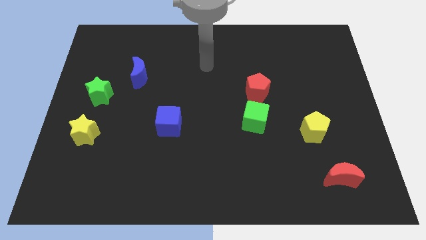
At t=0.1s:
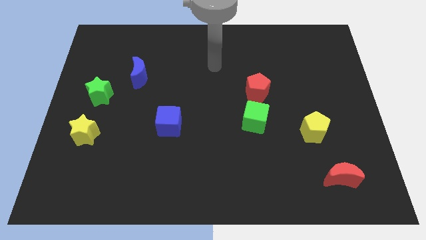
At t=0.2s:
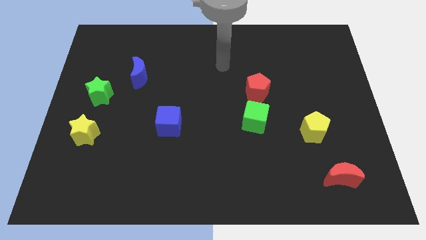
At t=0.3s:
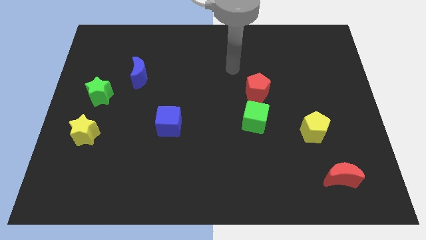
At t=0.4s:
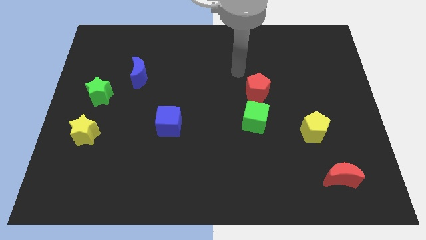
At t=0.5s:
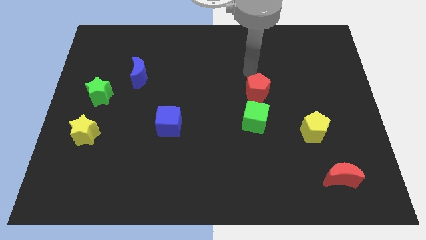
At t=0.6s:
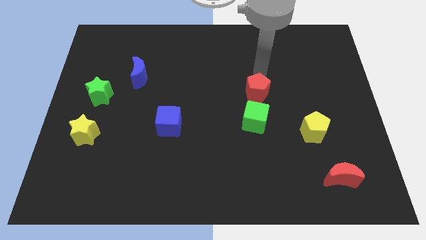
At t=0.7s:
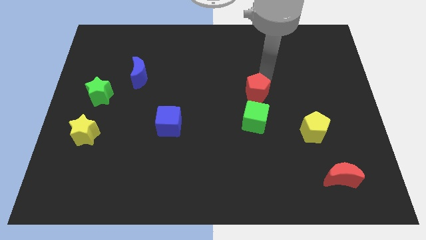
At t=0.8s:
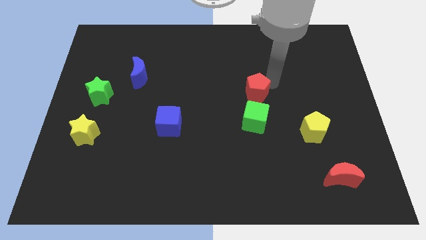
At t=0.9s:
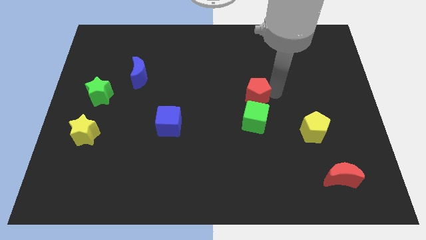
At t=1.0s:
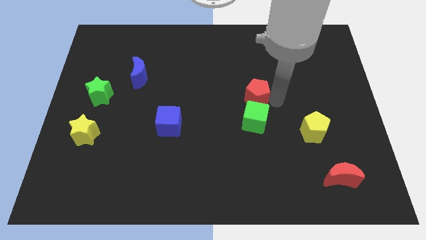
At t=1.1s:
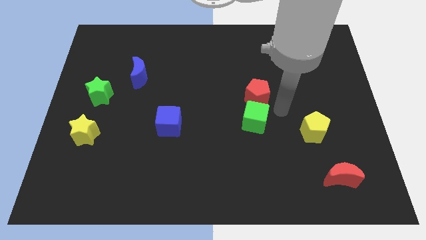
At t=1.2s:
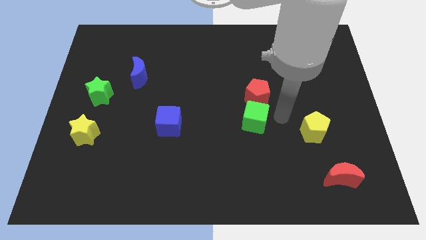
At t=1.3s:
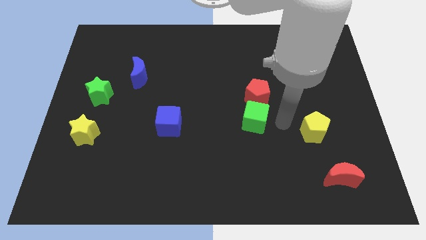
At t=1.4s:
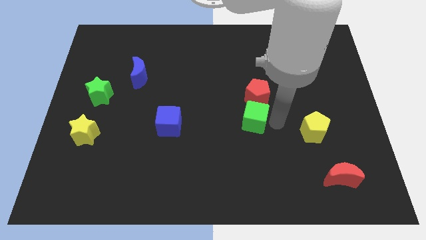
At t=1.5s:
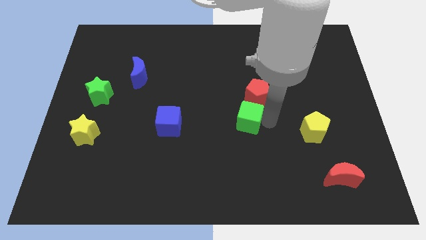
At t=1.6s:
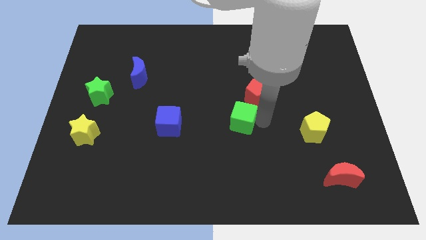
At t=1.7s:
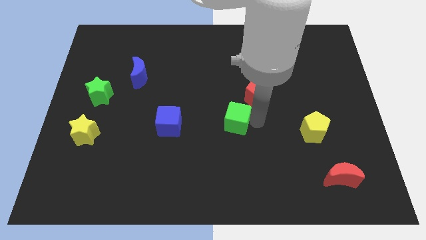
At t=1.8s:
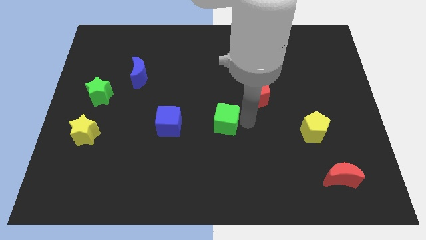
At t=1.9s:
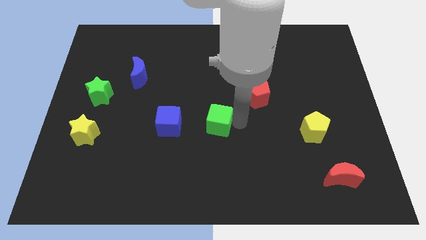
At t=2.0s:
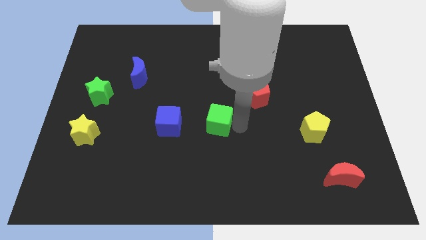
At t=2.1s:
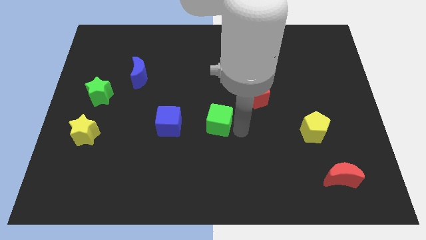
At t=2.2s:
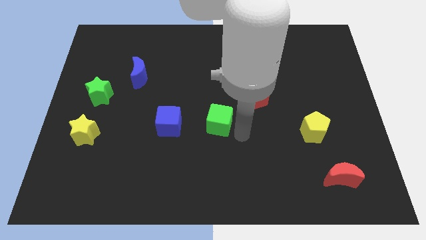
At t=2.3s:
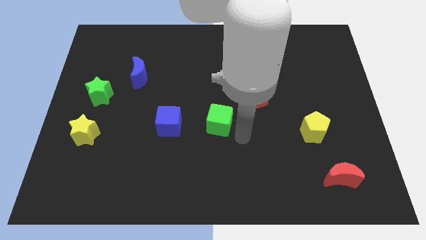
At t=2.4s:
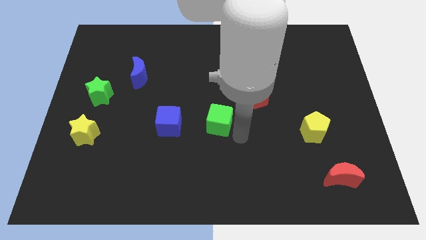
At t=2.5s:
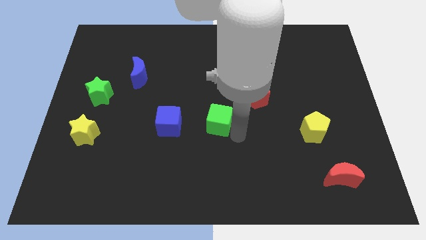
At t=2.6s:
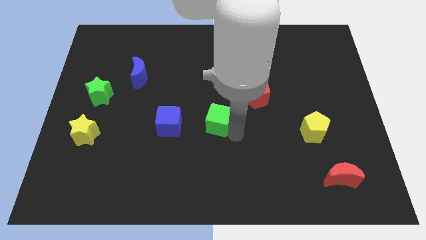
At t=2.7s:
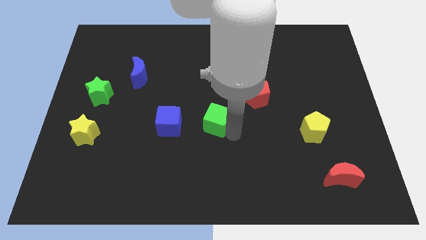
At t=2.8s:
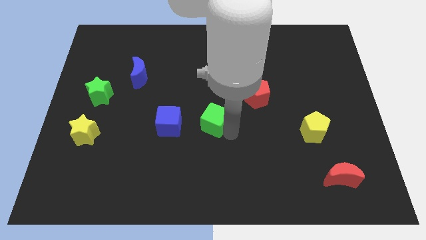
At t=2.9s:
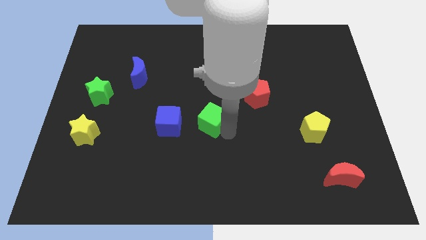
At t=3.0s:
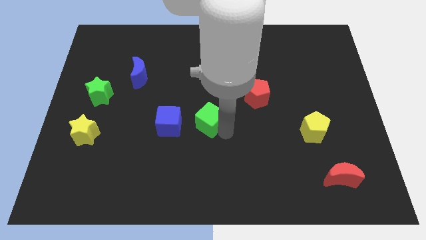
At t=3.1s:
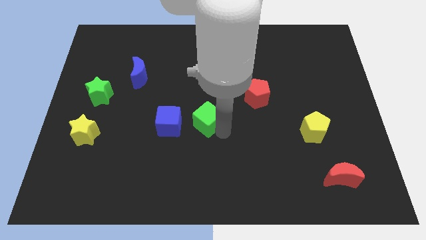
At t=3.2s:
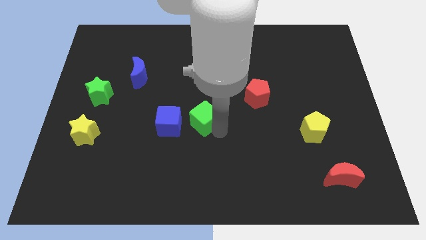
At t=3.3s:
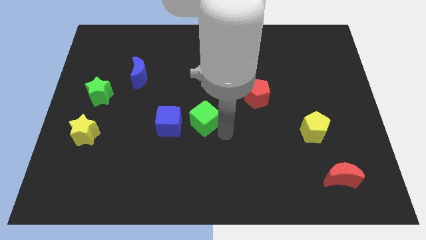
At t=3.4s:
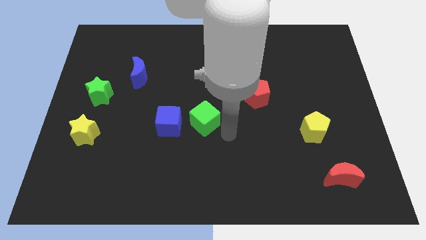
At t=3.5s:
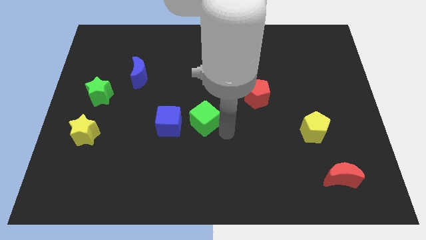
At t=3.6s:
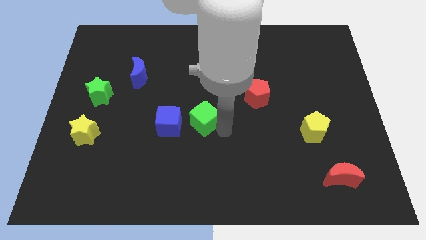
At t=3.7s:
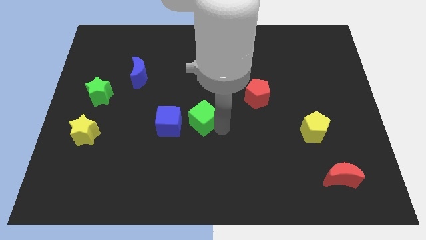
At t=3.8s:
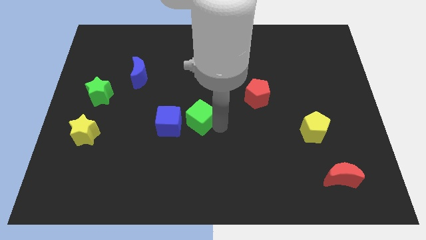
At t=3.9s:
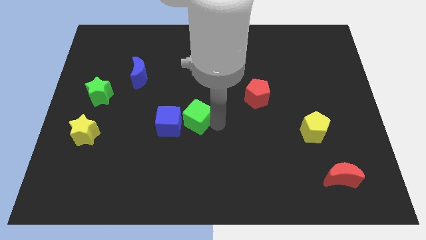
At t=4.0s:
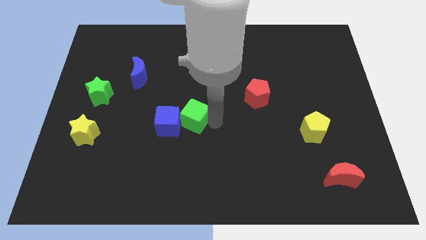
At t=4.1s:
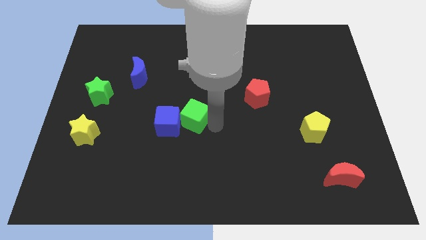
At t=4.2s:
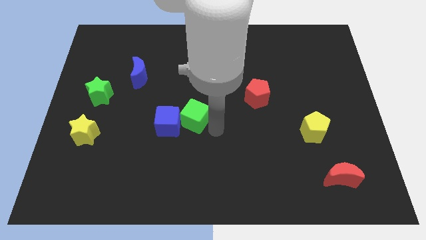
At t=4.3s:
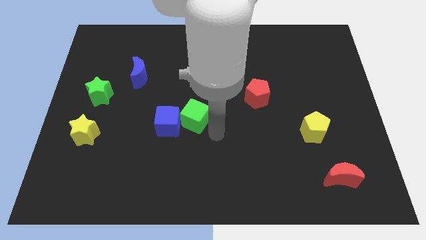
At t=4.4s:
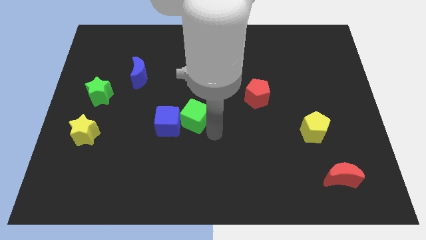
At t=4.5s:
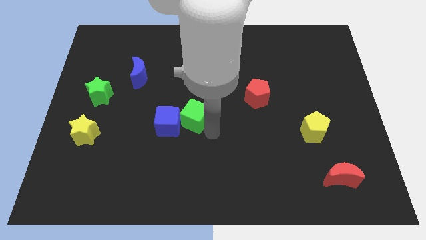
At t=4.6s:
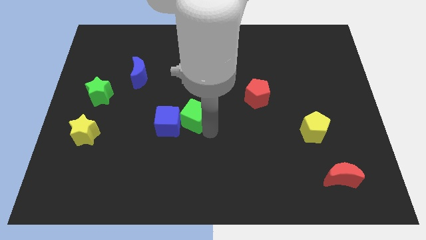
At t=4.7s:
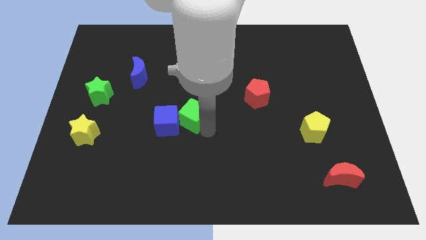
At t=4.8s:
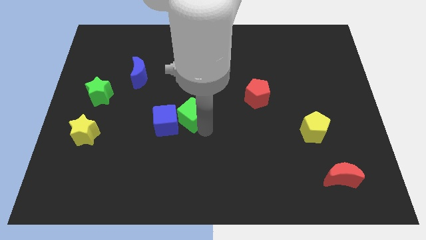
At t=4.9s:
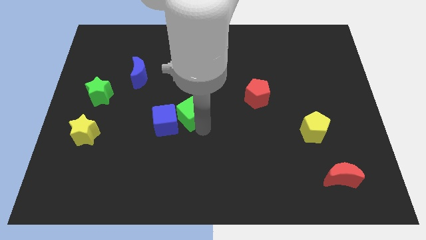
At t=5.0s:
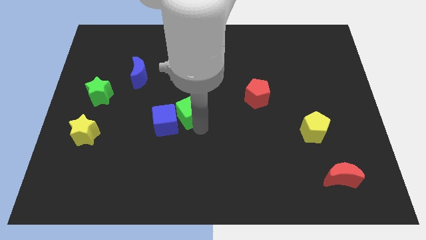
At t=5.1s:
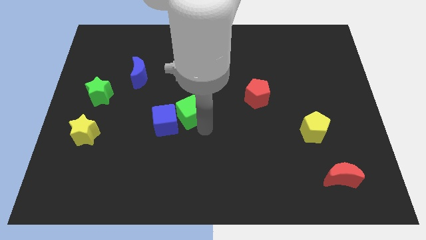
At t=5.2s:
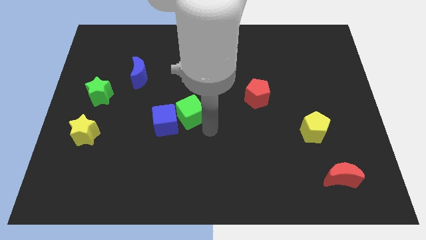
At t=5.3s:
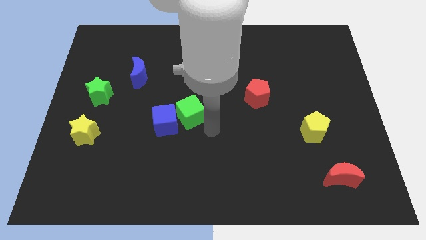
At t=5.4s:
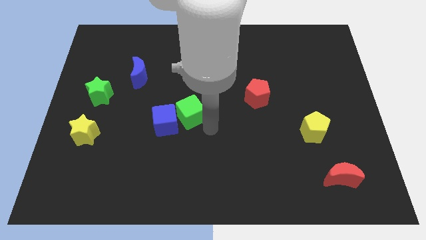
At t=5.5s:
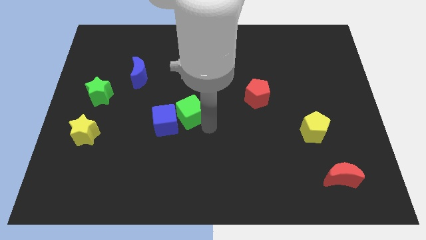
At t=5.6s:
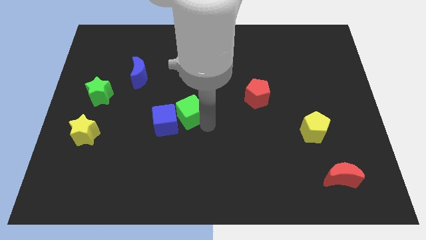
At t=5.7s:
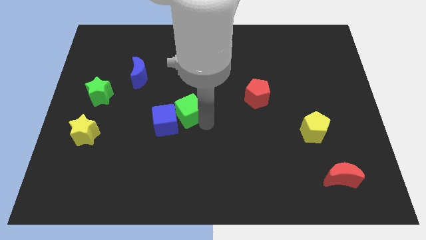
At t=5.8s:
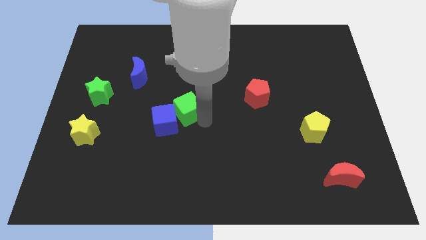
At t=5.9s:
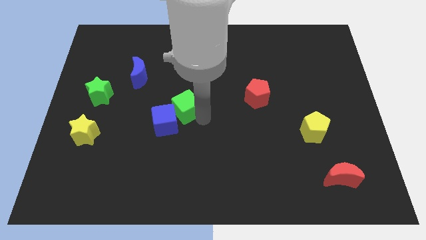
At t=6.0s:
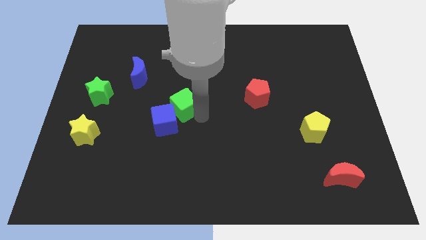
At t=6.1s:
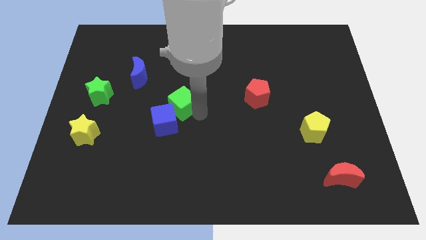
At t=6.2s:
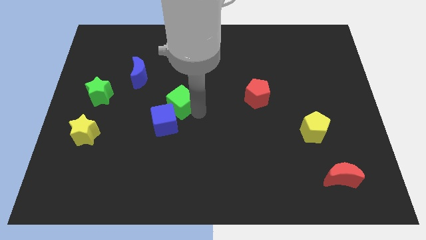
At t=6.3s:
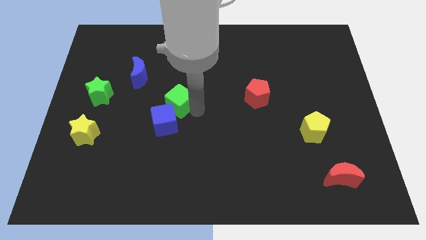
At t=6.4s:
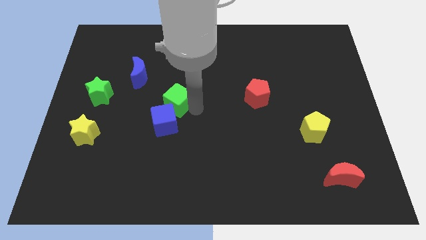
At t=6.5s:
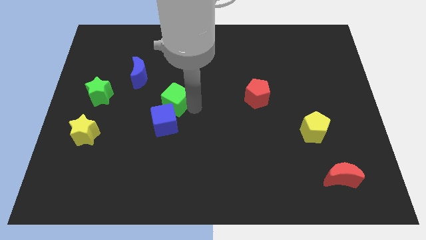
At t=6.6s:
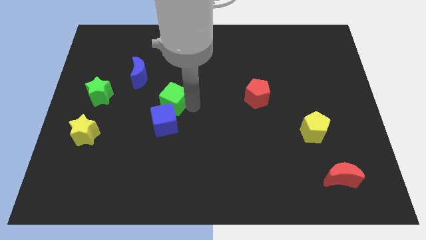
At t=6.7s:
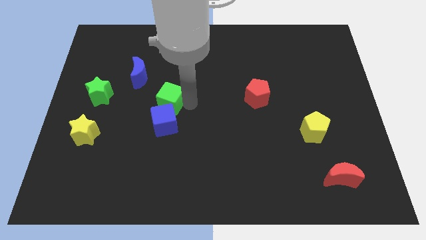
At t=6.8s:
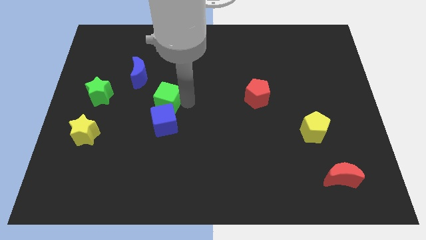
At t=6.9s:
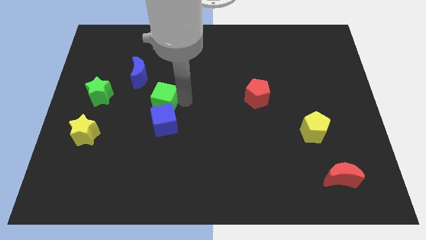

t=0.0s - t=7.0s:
move the green cube to the left

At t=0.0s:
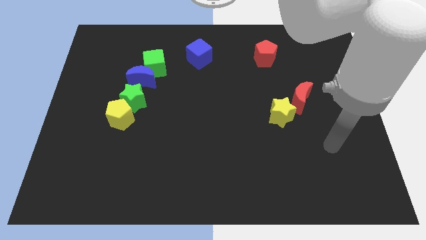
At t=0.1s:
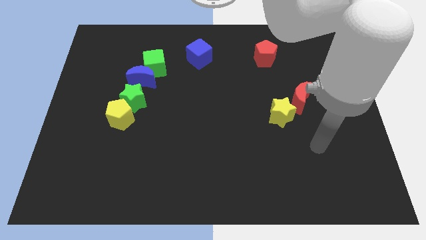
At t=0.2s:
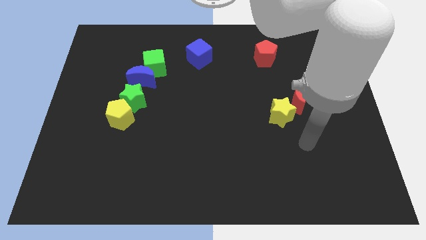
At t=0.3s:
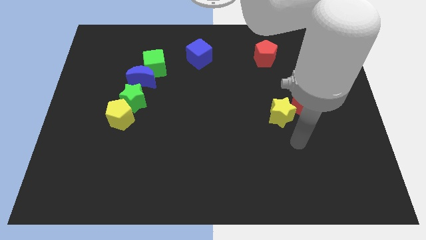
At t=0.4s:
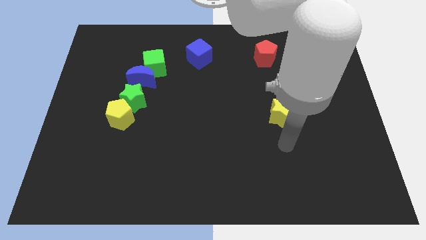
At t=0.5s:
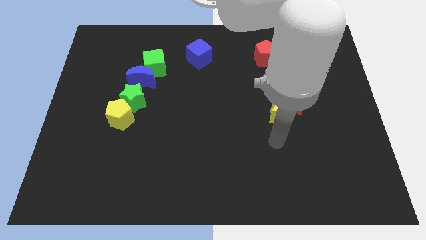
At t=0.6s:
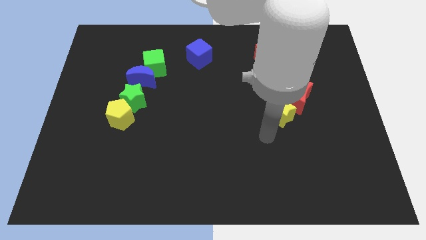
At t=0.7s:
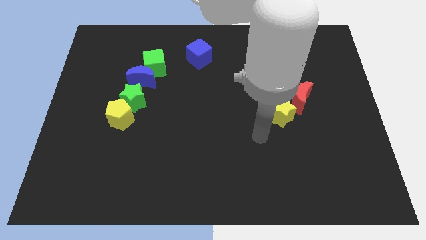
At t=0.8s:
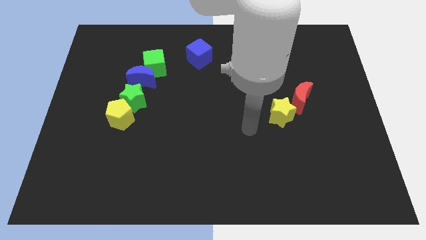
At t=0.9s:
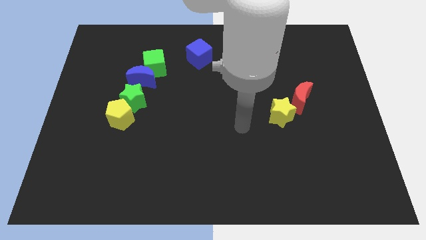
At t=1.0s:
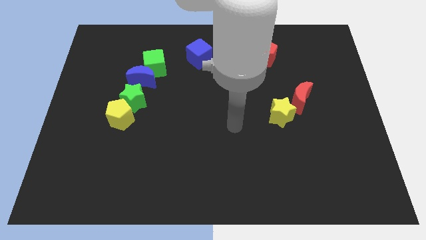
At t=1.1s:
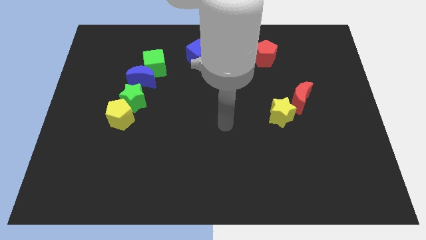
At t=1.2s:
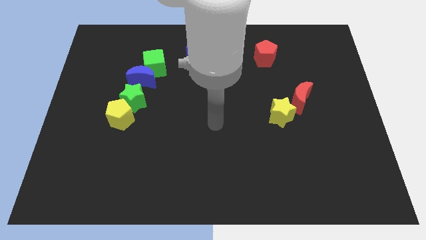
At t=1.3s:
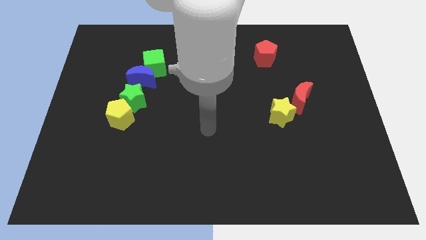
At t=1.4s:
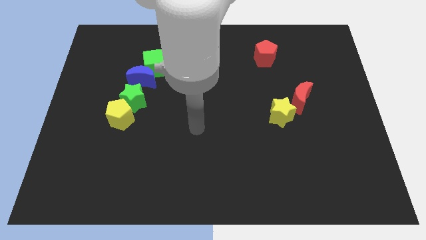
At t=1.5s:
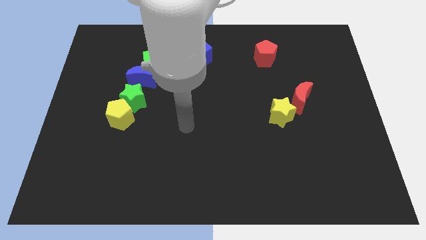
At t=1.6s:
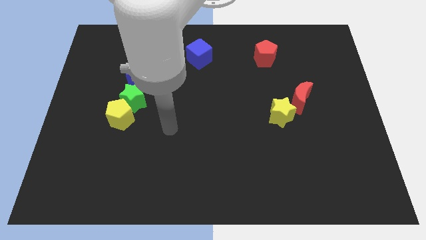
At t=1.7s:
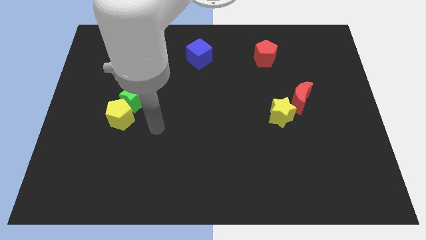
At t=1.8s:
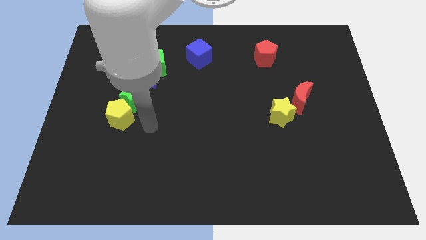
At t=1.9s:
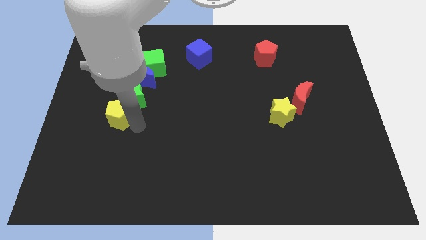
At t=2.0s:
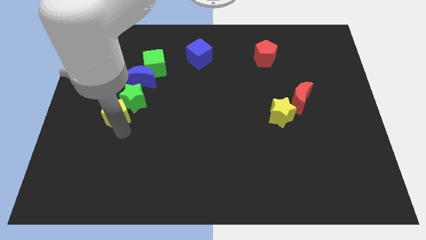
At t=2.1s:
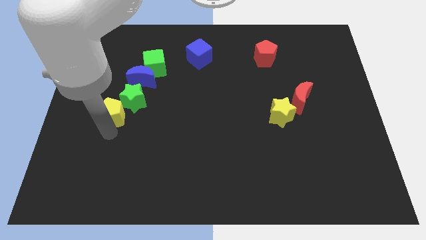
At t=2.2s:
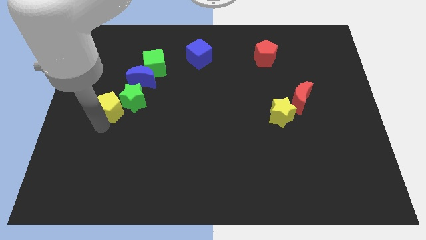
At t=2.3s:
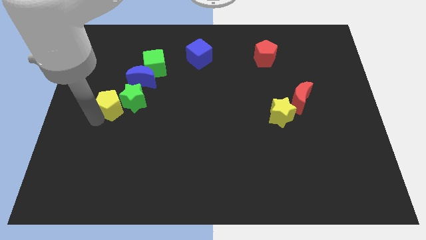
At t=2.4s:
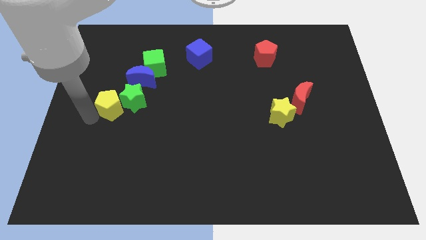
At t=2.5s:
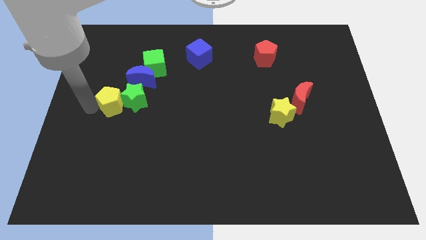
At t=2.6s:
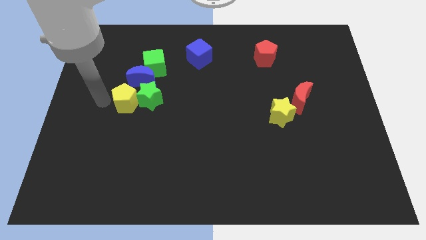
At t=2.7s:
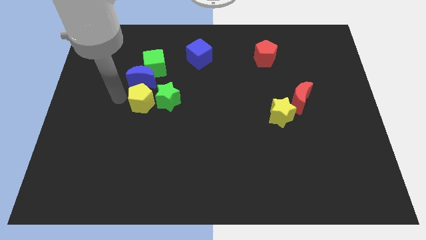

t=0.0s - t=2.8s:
push the green star slightly to the right
